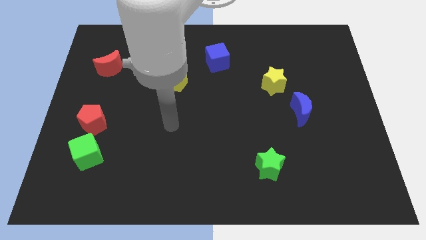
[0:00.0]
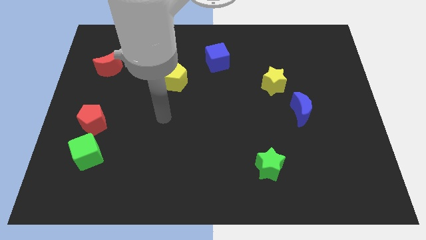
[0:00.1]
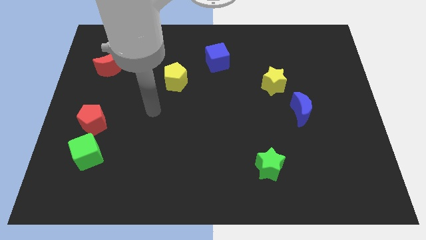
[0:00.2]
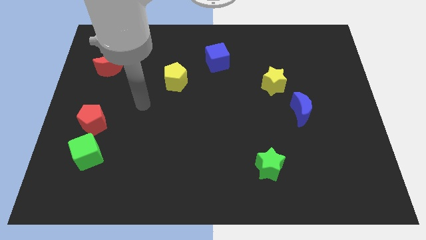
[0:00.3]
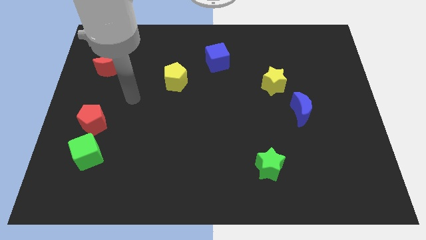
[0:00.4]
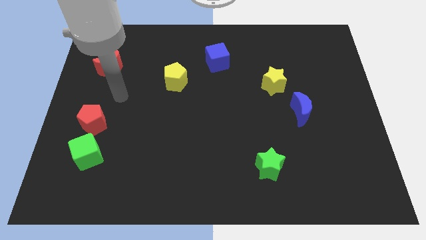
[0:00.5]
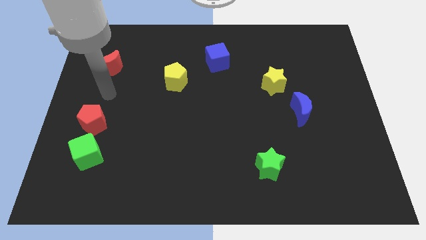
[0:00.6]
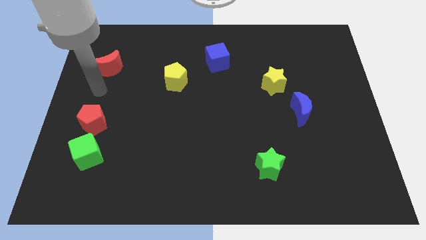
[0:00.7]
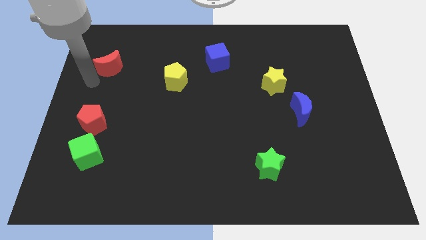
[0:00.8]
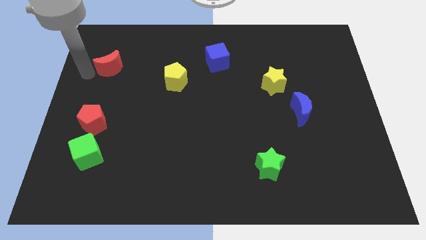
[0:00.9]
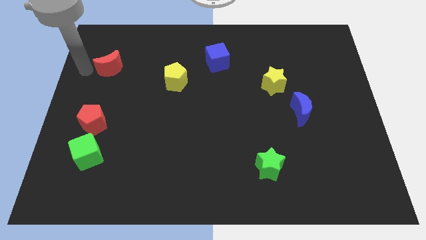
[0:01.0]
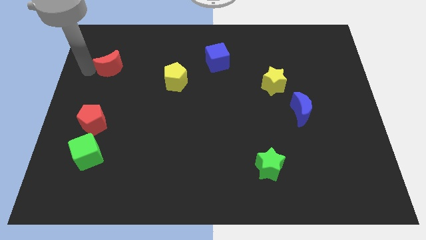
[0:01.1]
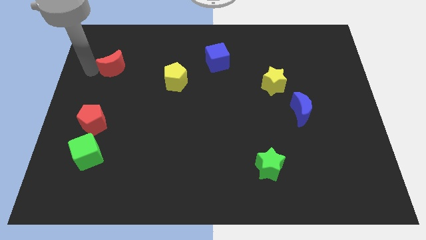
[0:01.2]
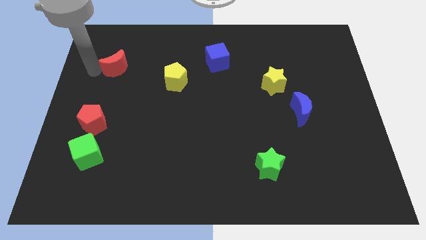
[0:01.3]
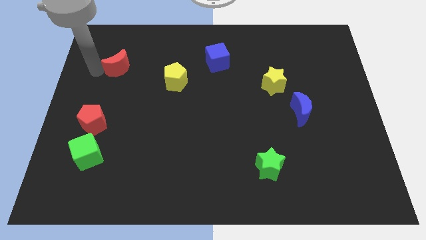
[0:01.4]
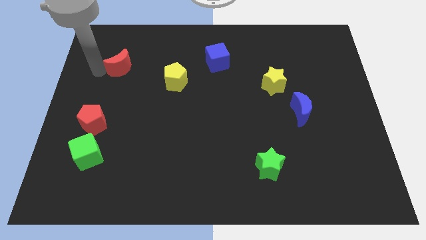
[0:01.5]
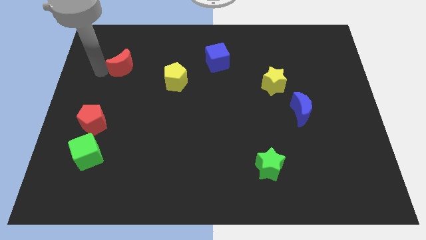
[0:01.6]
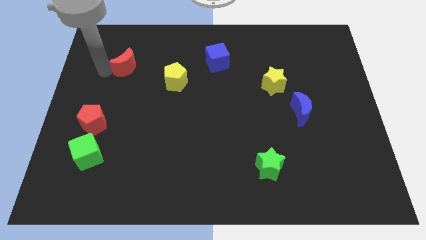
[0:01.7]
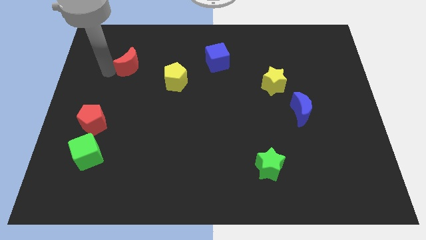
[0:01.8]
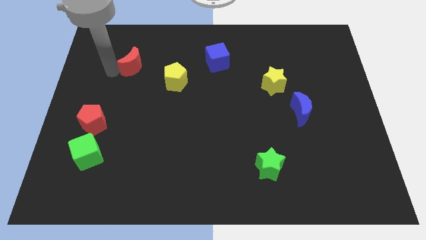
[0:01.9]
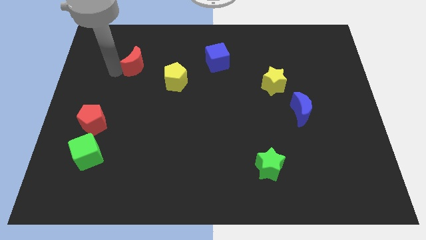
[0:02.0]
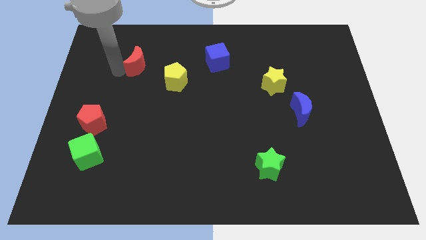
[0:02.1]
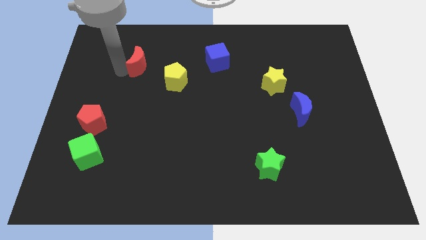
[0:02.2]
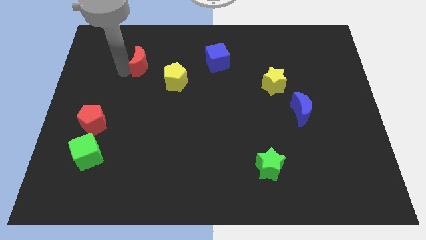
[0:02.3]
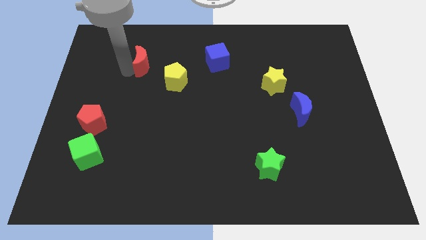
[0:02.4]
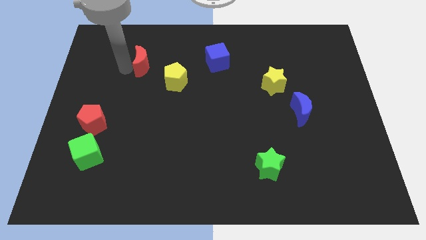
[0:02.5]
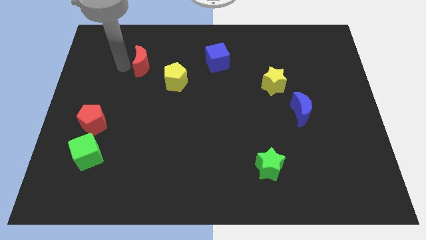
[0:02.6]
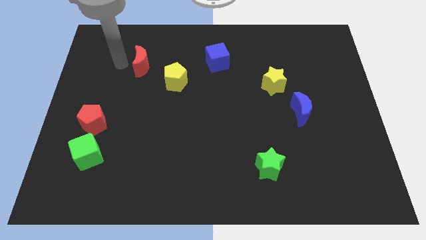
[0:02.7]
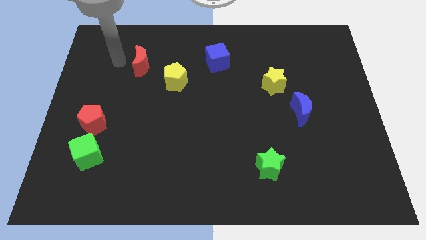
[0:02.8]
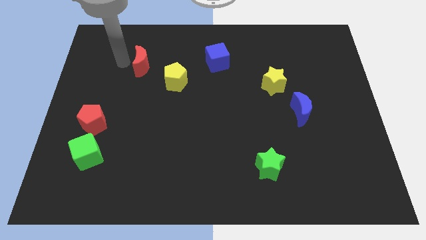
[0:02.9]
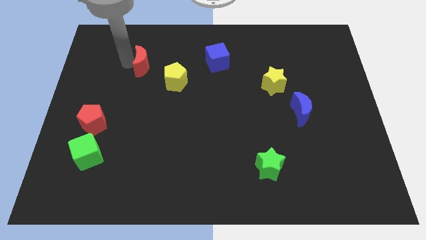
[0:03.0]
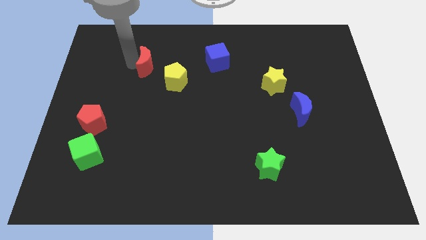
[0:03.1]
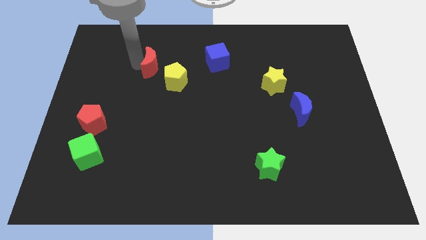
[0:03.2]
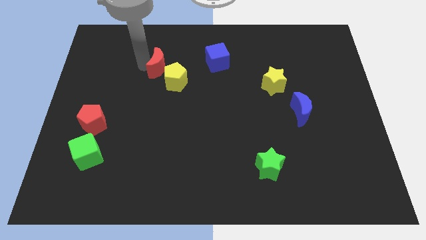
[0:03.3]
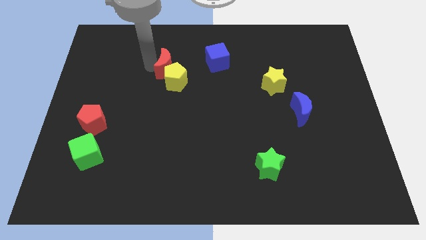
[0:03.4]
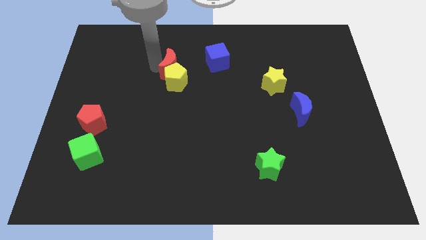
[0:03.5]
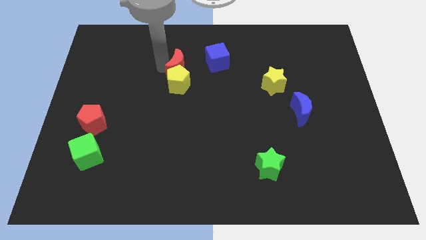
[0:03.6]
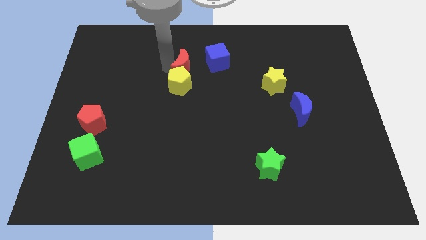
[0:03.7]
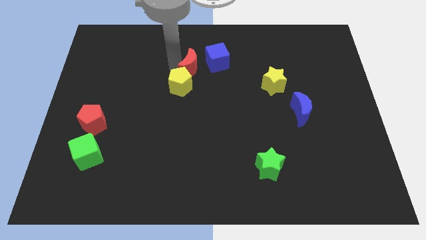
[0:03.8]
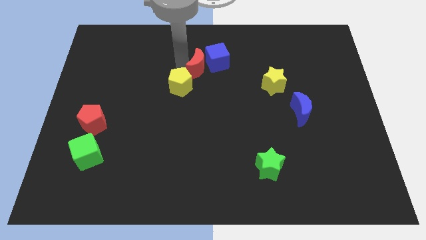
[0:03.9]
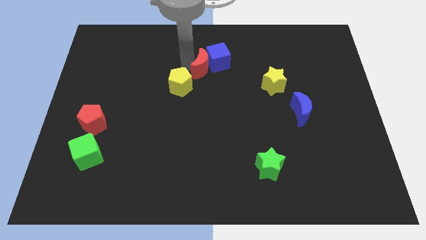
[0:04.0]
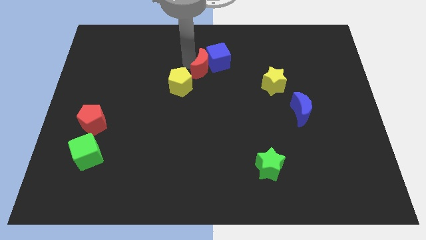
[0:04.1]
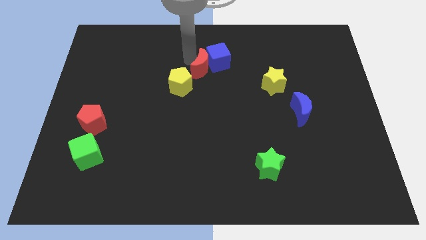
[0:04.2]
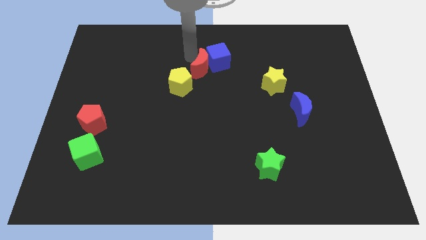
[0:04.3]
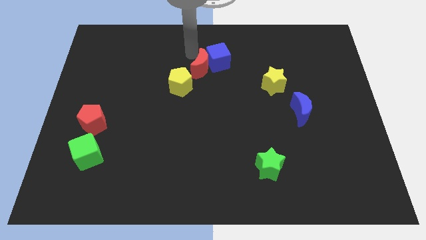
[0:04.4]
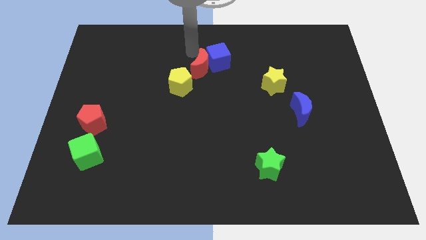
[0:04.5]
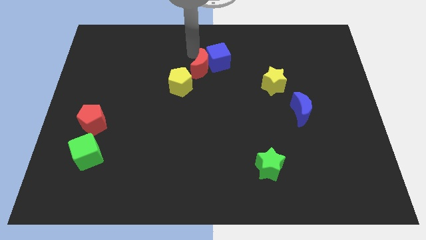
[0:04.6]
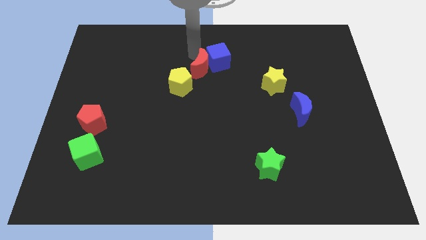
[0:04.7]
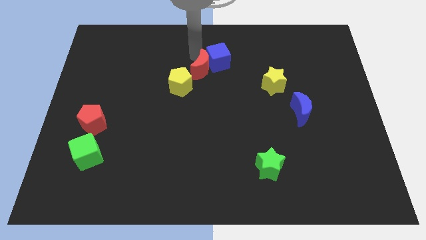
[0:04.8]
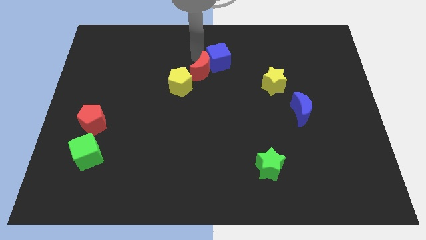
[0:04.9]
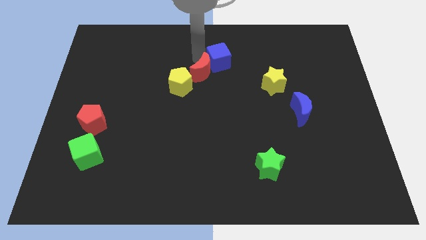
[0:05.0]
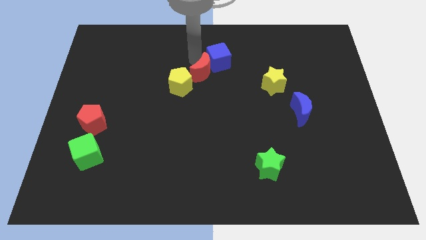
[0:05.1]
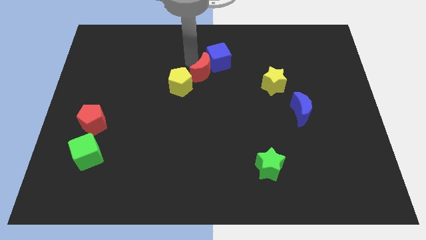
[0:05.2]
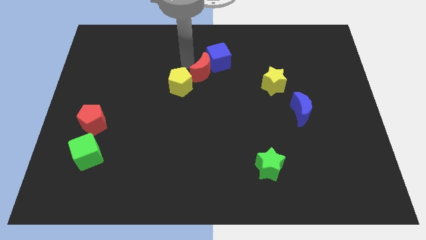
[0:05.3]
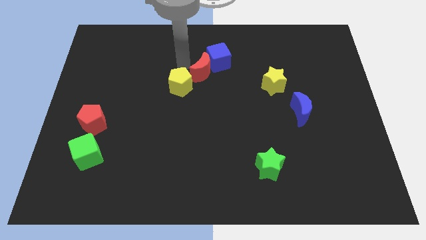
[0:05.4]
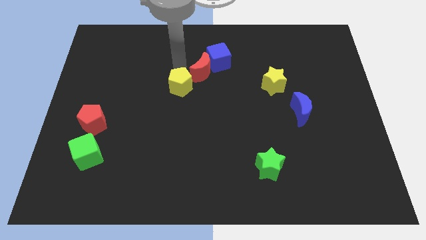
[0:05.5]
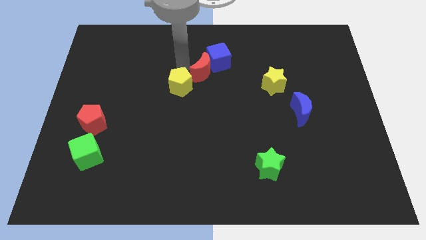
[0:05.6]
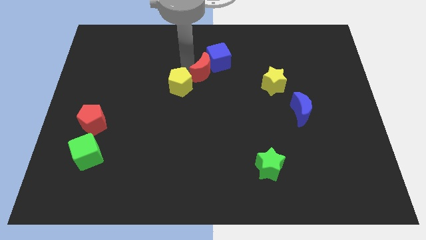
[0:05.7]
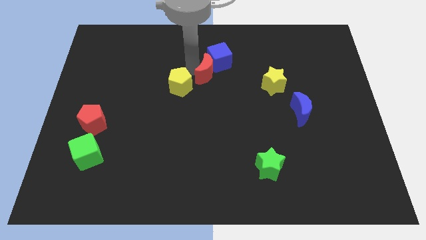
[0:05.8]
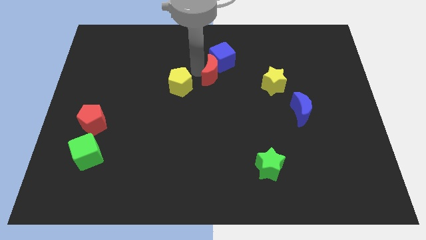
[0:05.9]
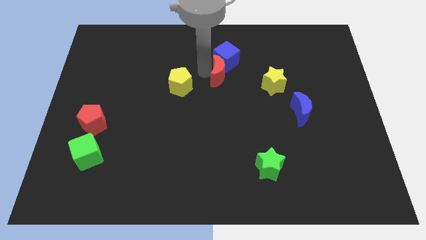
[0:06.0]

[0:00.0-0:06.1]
slide the red moon just left of the yellow star

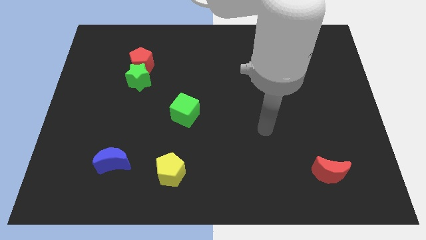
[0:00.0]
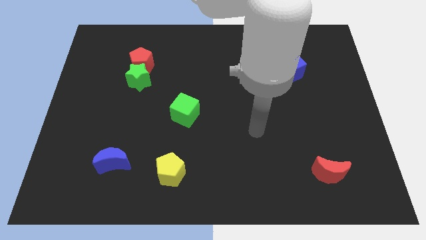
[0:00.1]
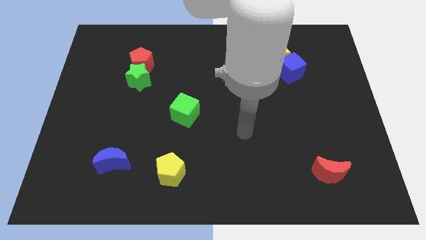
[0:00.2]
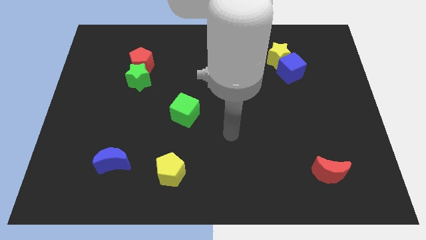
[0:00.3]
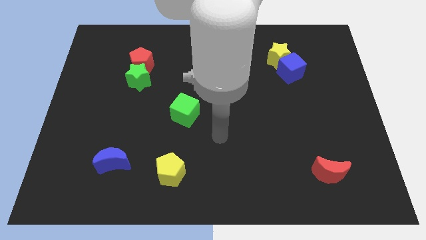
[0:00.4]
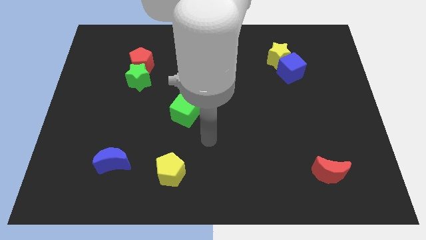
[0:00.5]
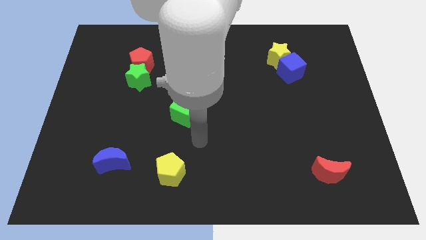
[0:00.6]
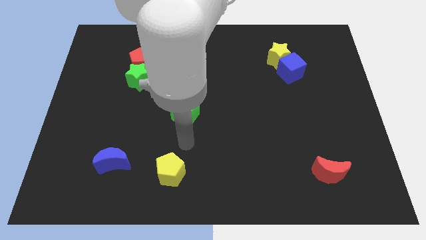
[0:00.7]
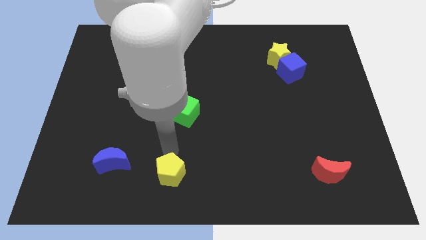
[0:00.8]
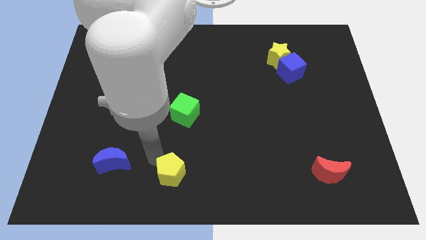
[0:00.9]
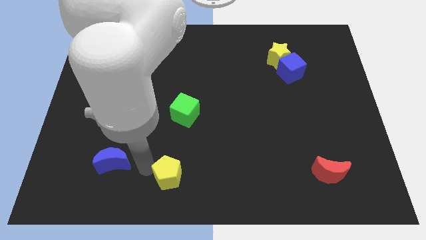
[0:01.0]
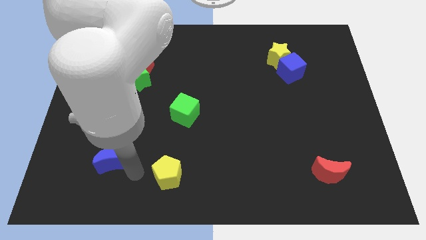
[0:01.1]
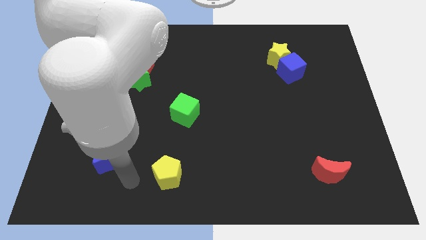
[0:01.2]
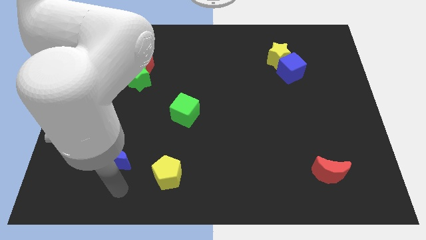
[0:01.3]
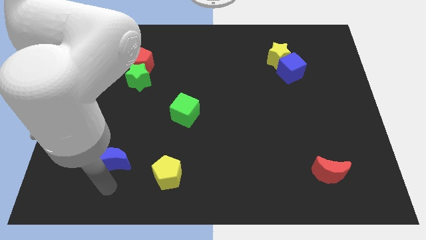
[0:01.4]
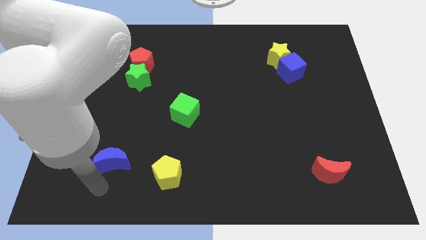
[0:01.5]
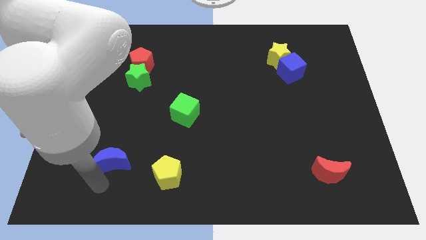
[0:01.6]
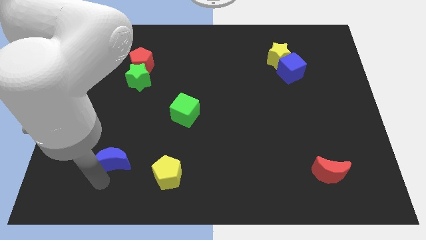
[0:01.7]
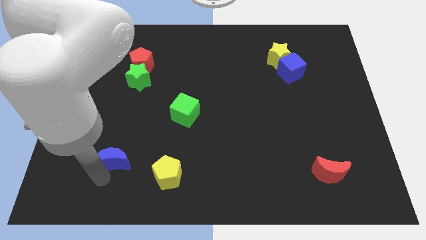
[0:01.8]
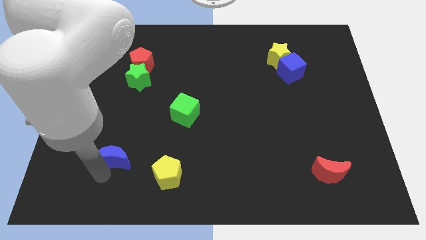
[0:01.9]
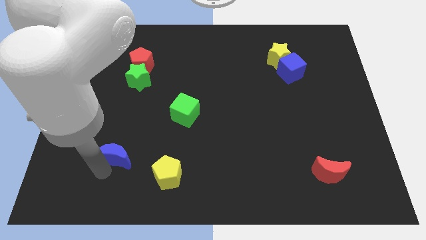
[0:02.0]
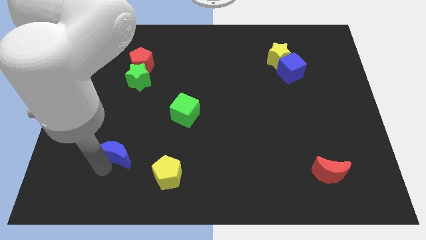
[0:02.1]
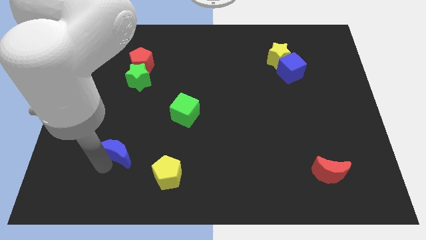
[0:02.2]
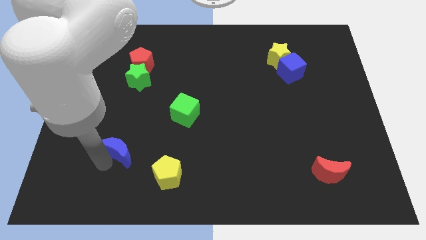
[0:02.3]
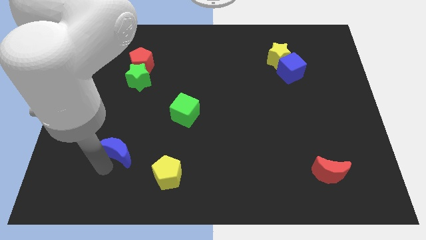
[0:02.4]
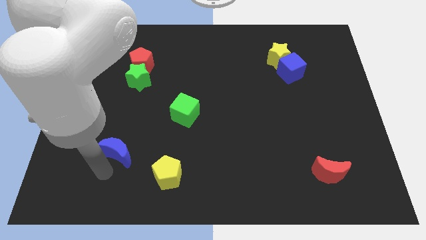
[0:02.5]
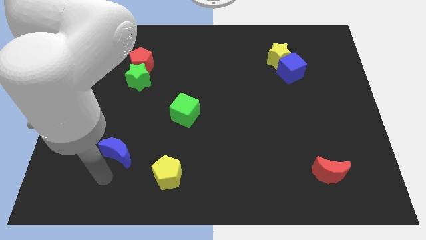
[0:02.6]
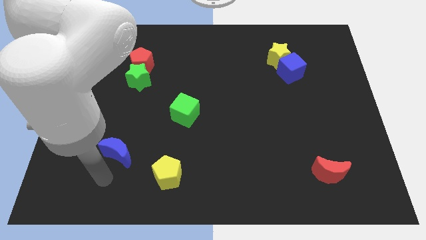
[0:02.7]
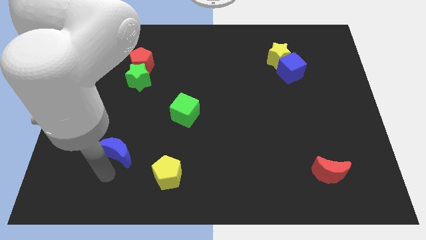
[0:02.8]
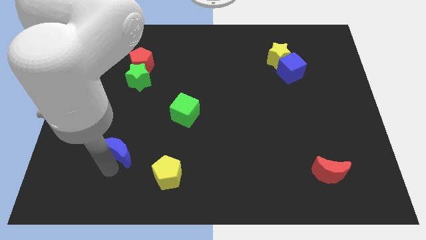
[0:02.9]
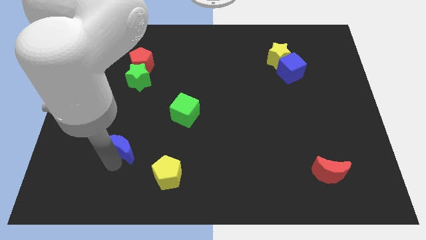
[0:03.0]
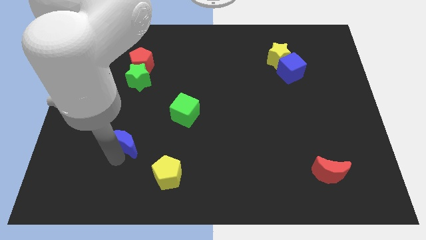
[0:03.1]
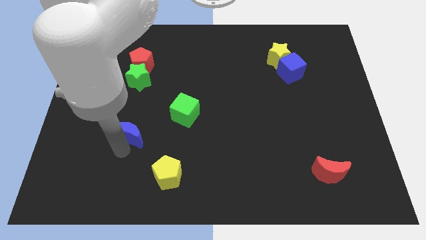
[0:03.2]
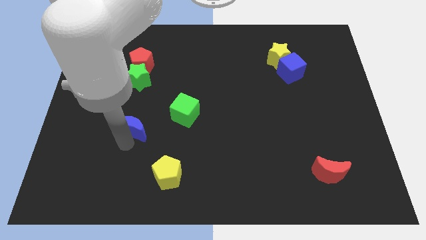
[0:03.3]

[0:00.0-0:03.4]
move the blue moon to the left of the green cube
